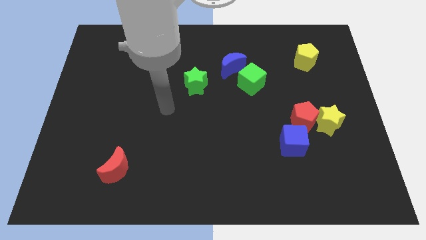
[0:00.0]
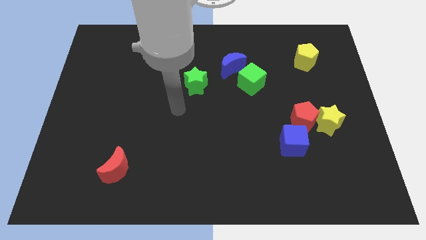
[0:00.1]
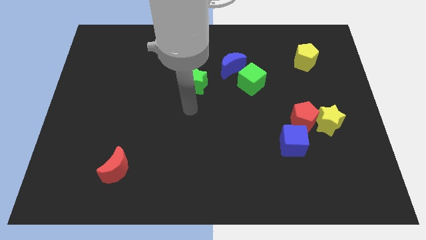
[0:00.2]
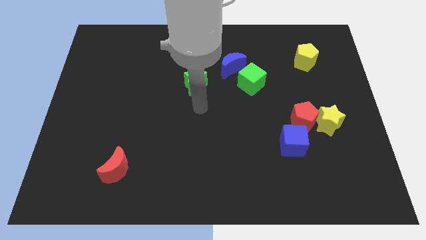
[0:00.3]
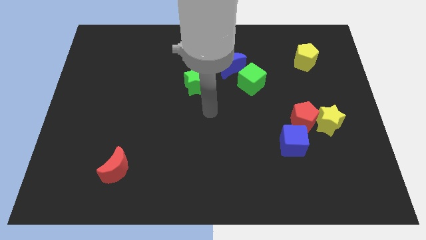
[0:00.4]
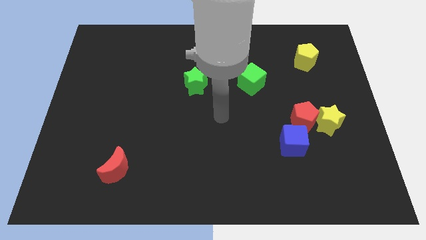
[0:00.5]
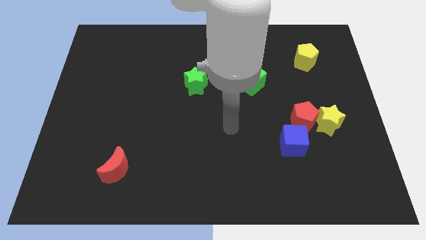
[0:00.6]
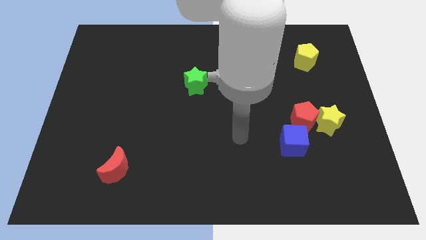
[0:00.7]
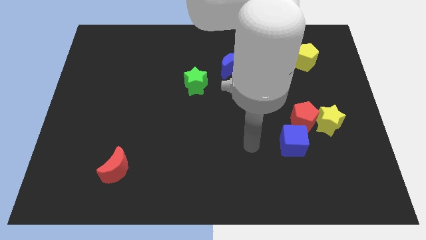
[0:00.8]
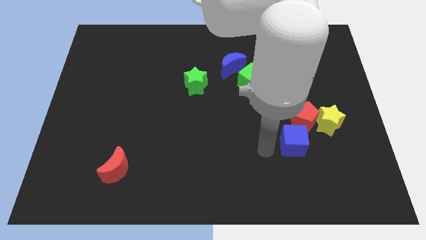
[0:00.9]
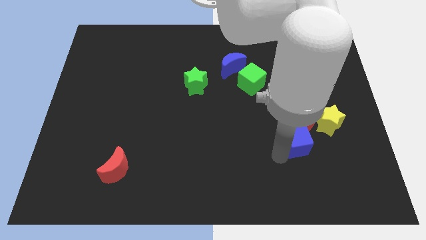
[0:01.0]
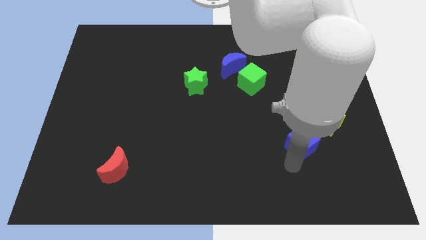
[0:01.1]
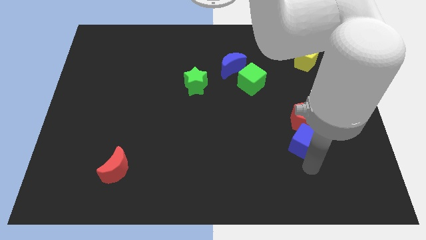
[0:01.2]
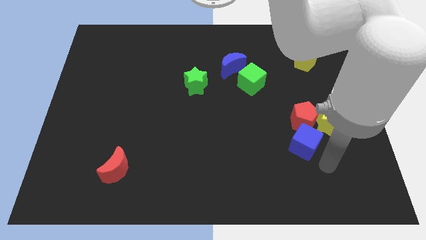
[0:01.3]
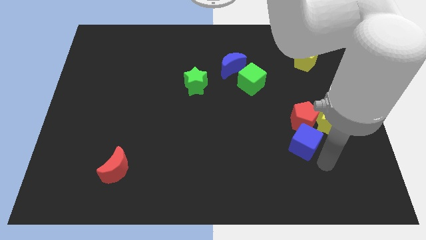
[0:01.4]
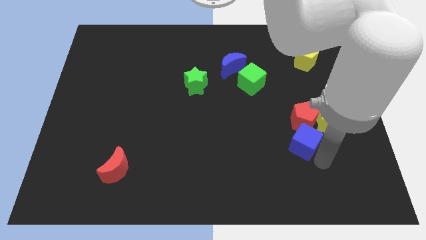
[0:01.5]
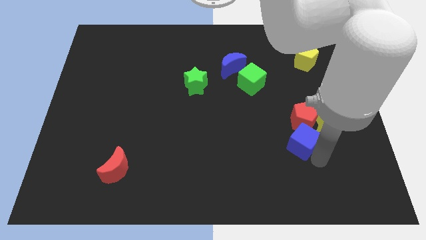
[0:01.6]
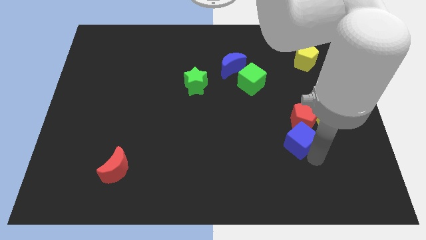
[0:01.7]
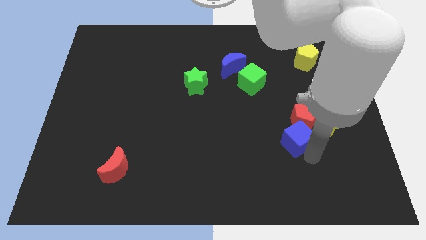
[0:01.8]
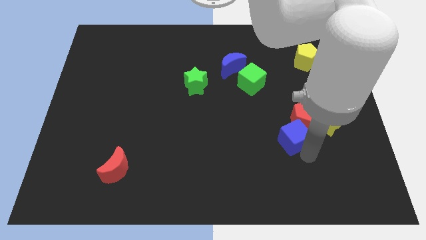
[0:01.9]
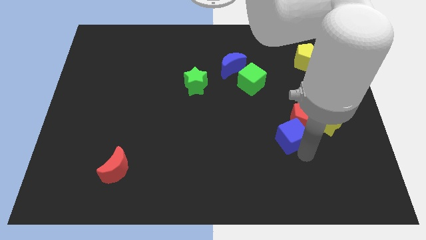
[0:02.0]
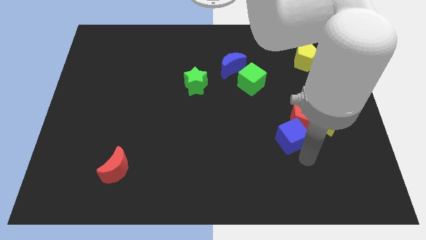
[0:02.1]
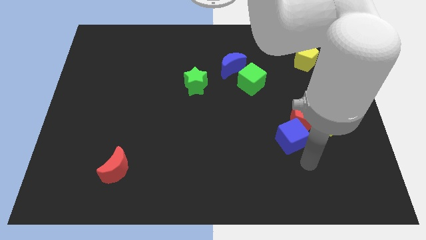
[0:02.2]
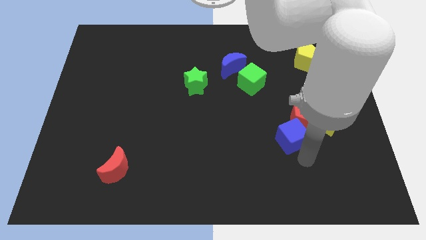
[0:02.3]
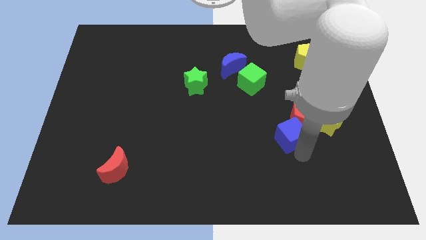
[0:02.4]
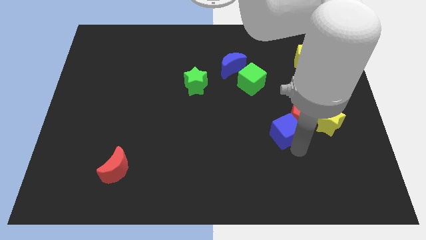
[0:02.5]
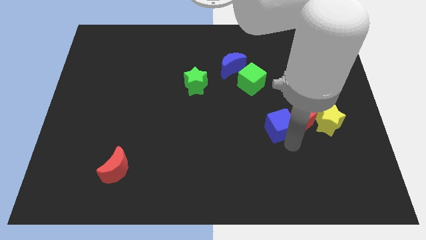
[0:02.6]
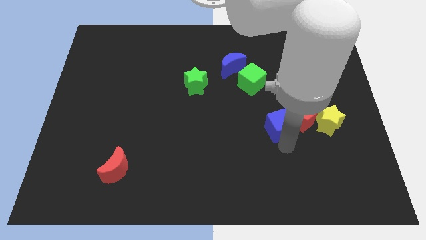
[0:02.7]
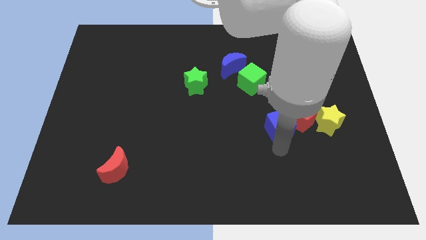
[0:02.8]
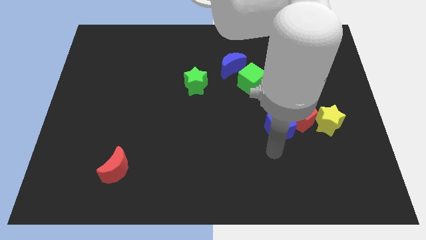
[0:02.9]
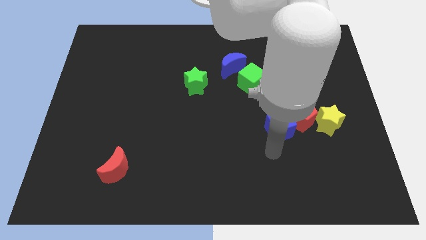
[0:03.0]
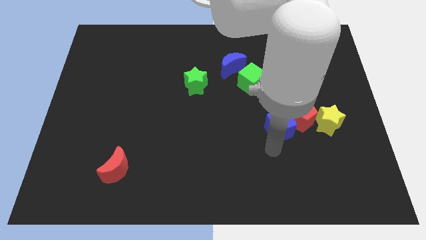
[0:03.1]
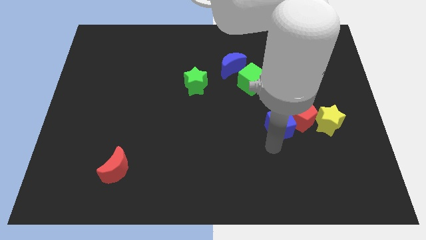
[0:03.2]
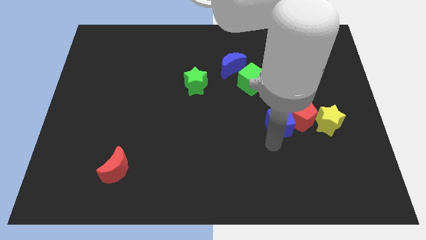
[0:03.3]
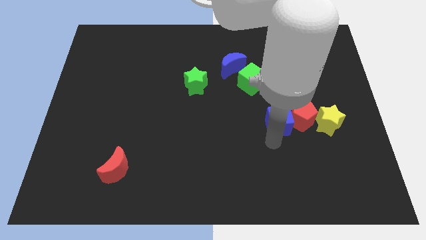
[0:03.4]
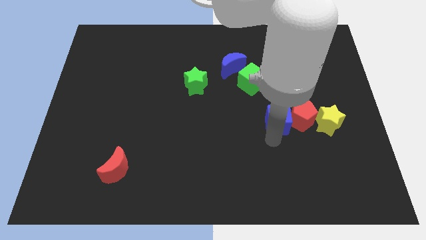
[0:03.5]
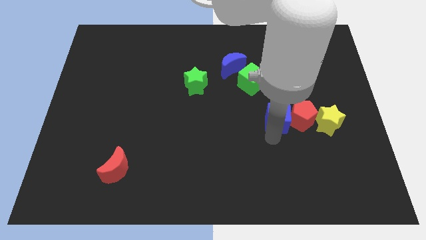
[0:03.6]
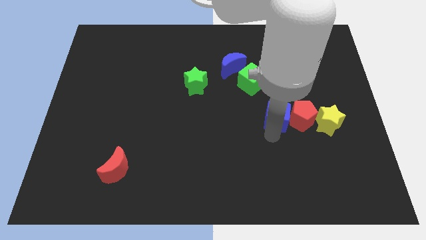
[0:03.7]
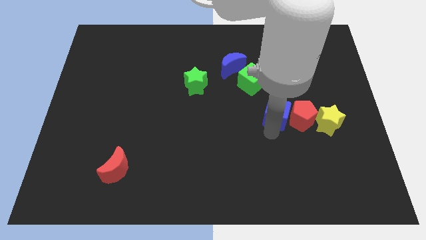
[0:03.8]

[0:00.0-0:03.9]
move the blue cube somewhat upwards

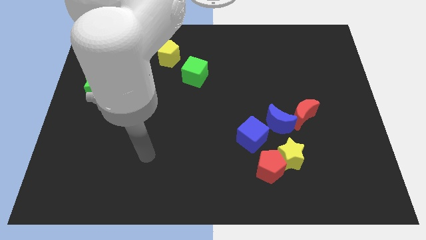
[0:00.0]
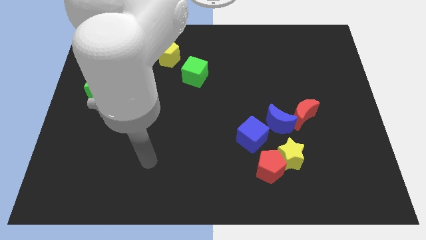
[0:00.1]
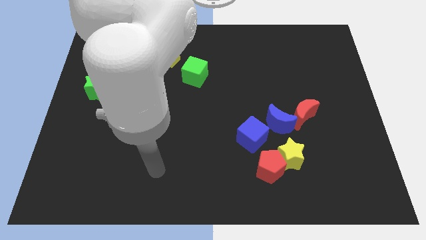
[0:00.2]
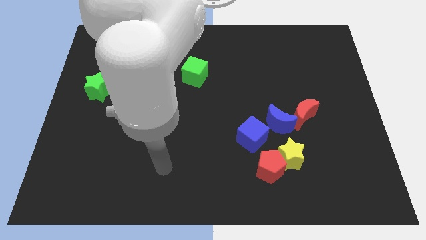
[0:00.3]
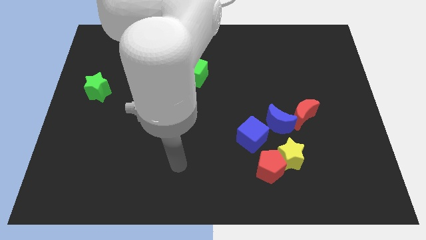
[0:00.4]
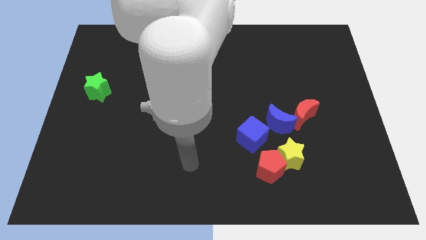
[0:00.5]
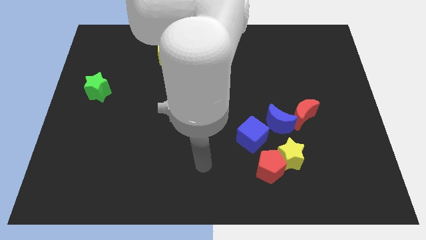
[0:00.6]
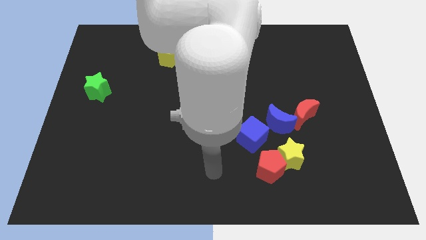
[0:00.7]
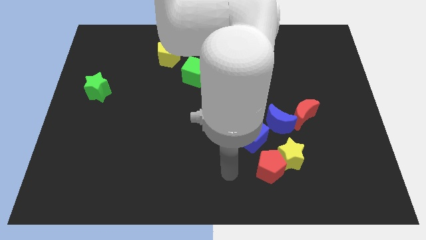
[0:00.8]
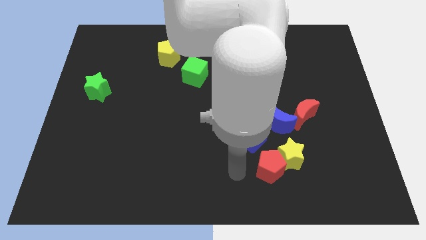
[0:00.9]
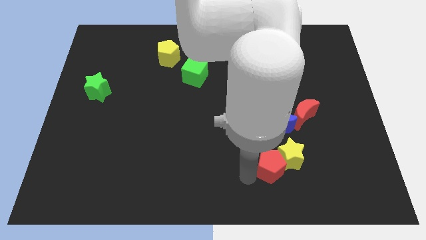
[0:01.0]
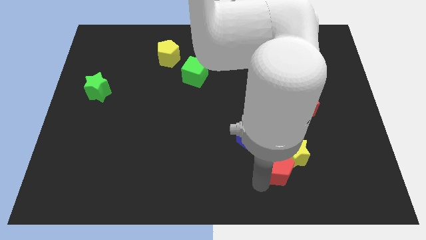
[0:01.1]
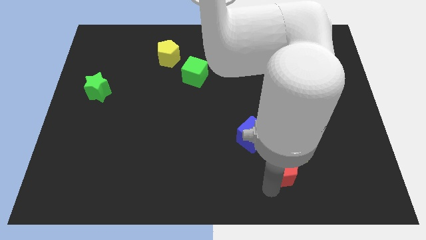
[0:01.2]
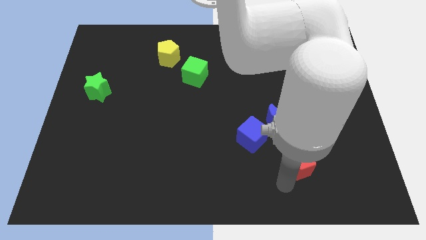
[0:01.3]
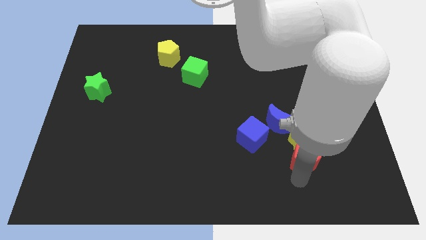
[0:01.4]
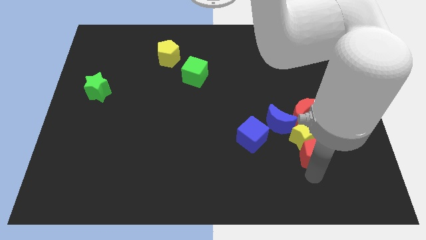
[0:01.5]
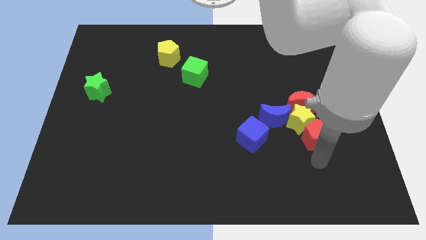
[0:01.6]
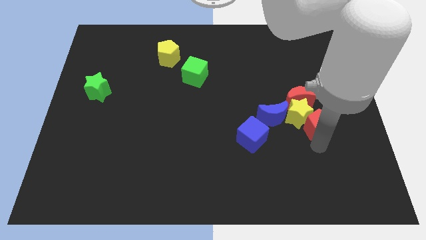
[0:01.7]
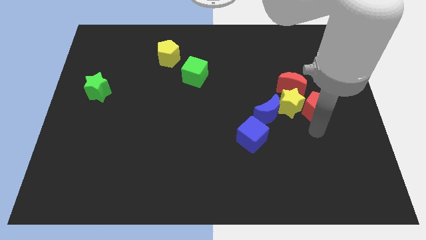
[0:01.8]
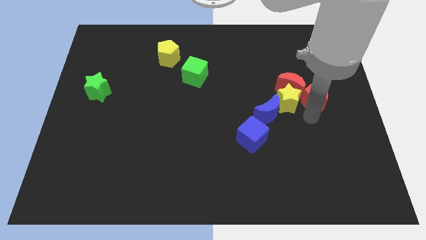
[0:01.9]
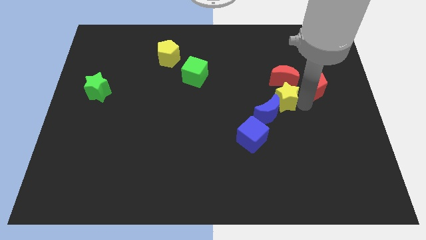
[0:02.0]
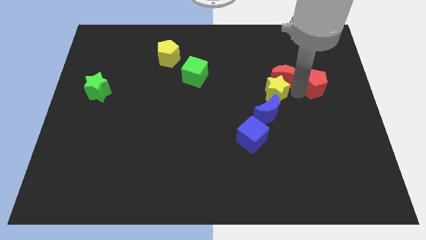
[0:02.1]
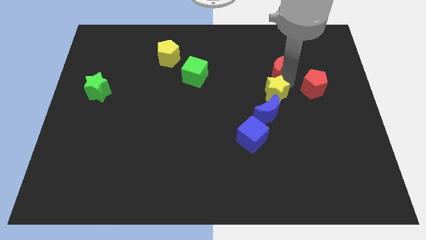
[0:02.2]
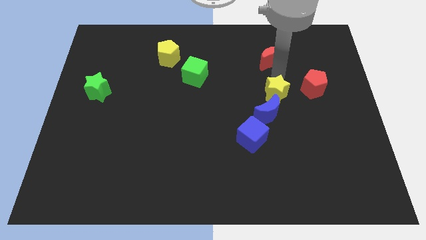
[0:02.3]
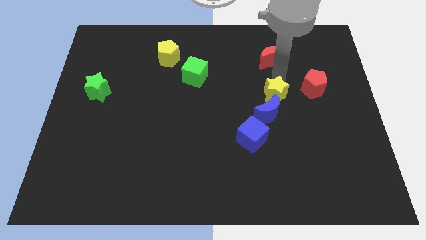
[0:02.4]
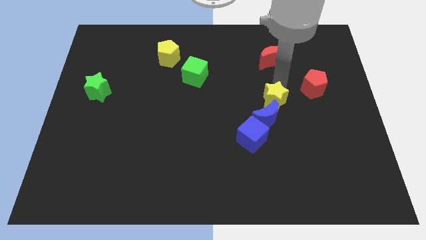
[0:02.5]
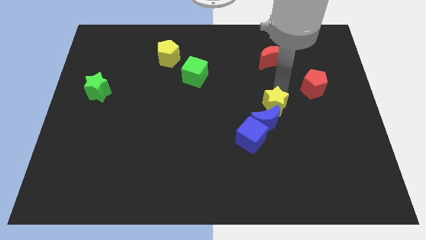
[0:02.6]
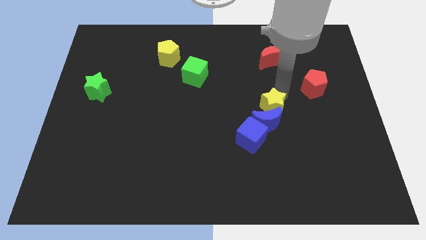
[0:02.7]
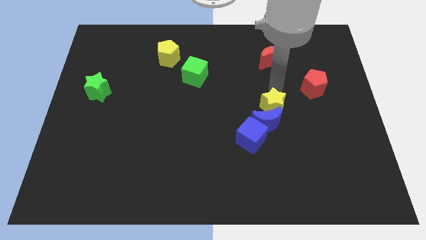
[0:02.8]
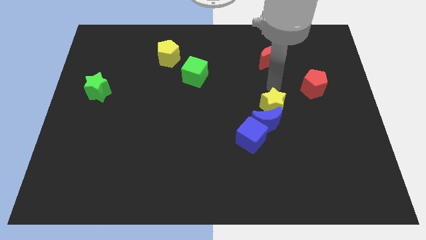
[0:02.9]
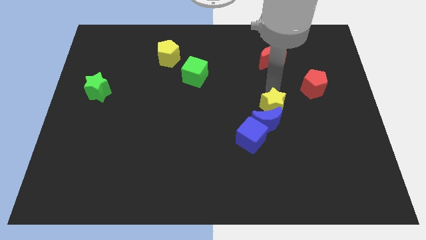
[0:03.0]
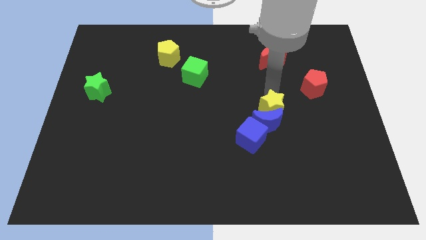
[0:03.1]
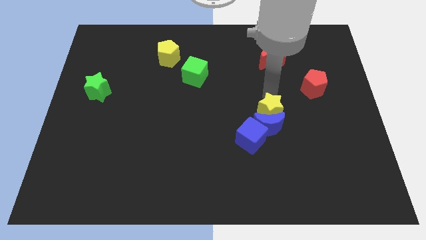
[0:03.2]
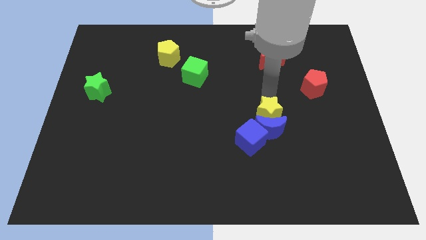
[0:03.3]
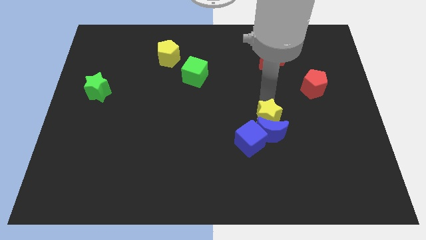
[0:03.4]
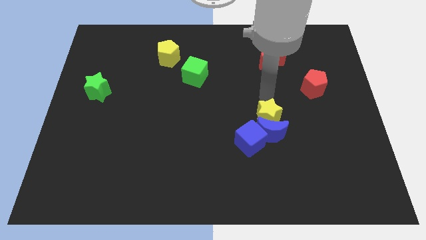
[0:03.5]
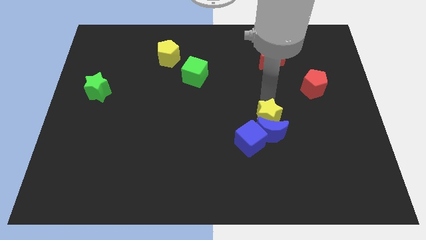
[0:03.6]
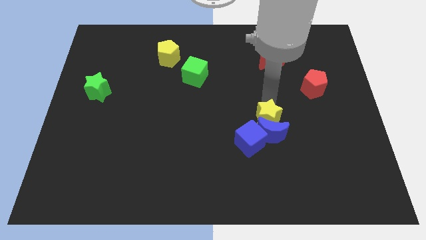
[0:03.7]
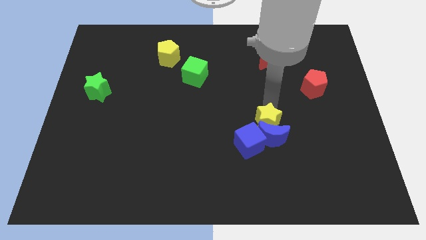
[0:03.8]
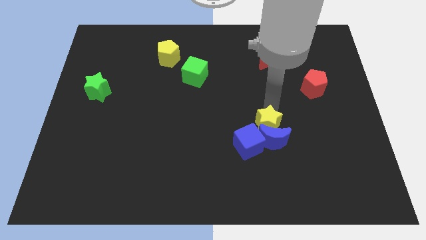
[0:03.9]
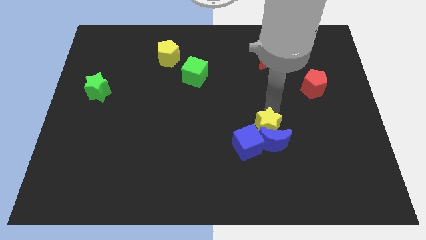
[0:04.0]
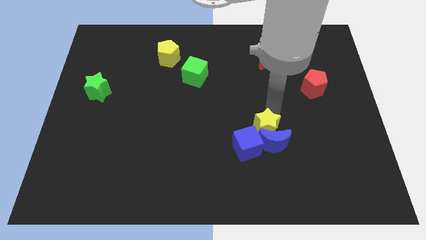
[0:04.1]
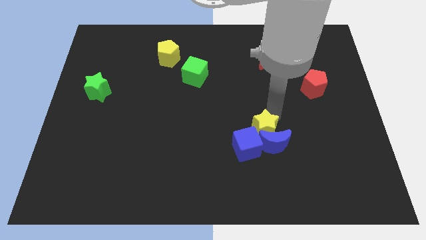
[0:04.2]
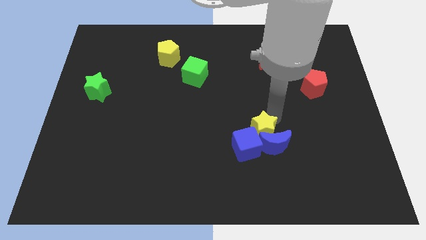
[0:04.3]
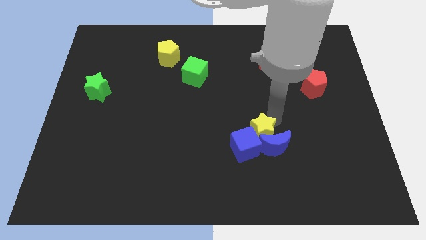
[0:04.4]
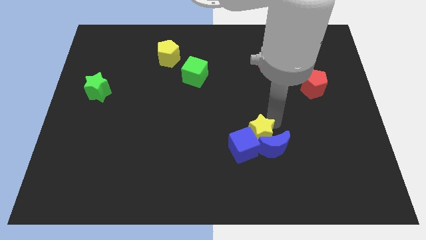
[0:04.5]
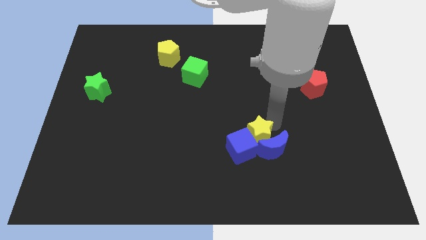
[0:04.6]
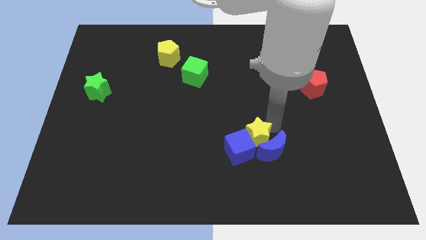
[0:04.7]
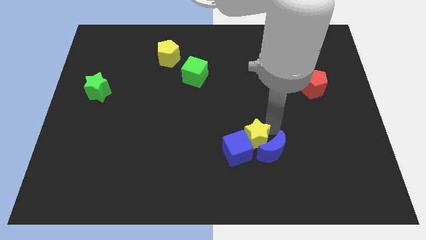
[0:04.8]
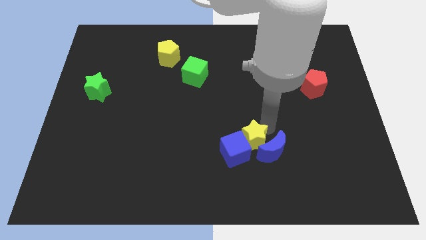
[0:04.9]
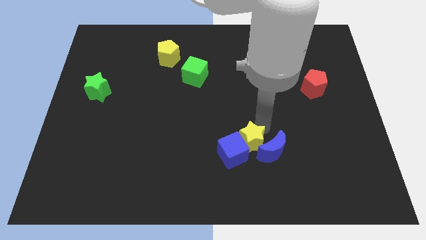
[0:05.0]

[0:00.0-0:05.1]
move the yellow star somewhat left
